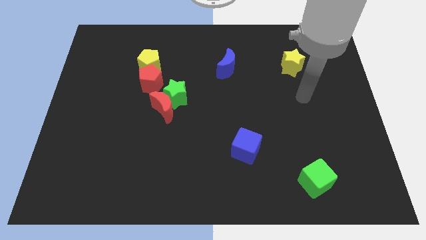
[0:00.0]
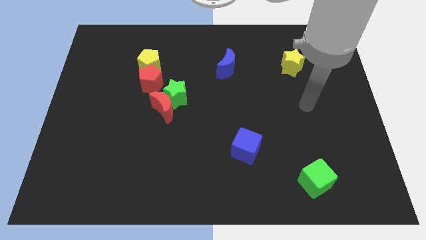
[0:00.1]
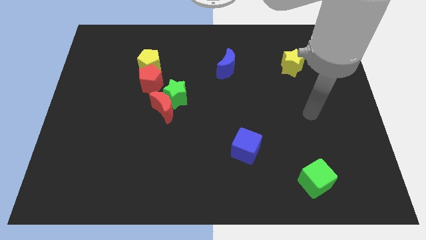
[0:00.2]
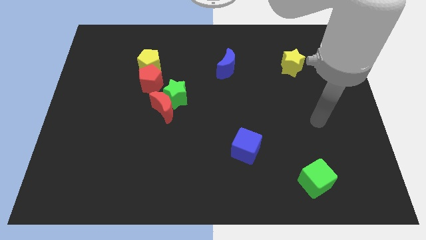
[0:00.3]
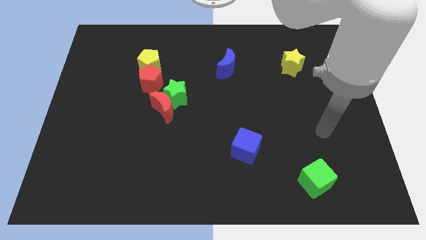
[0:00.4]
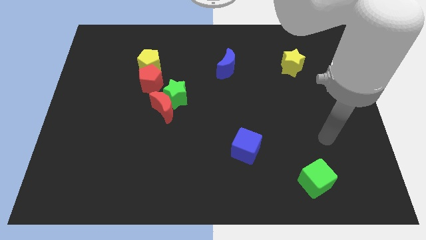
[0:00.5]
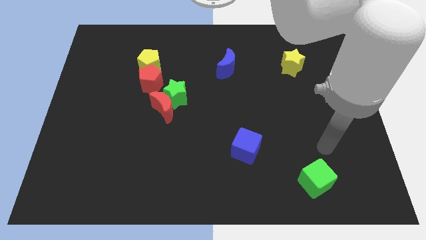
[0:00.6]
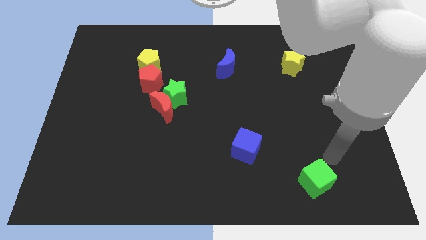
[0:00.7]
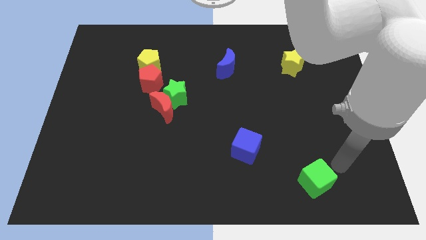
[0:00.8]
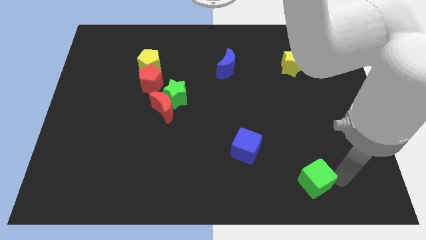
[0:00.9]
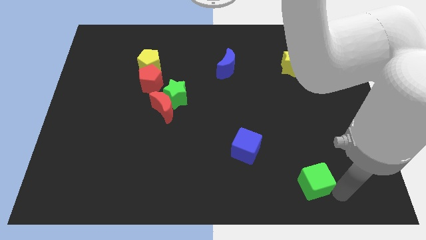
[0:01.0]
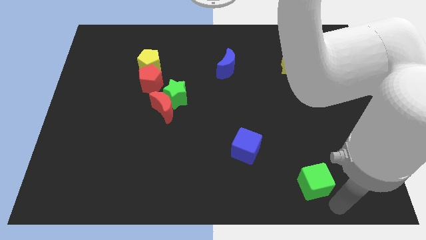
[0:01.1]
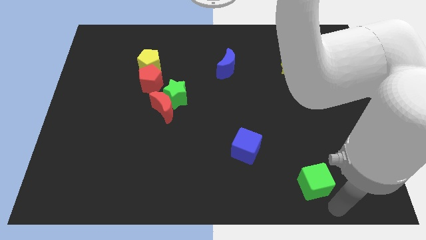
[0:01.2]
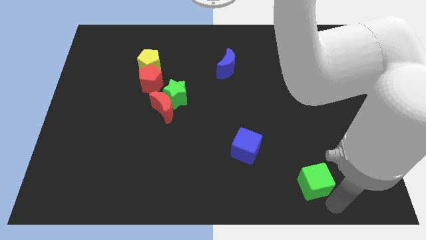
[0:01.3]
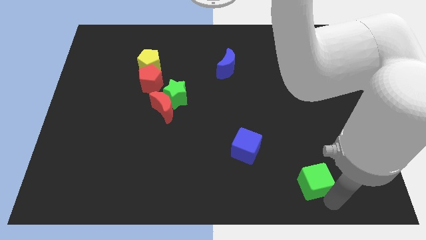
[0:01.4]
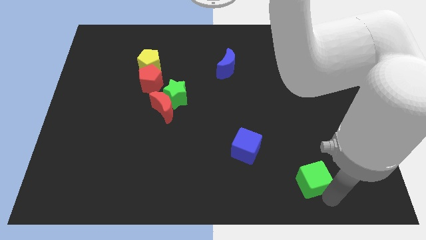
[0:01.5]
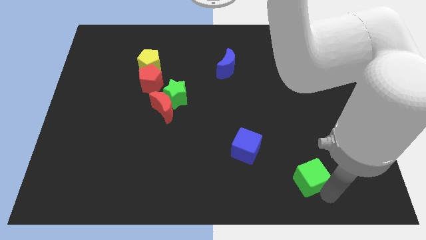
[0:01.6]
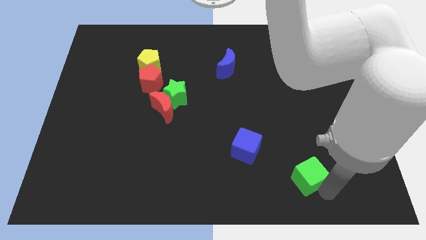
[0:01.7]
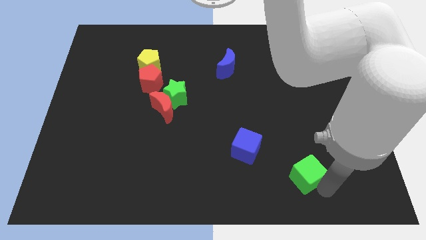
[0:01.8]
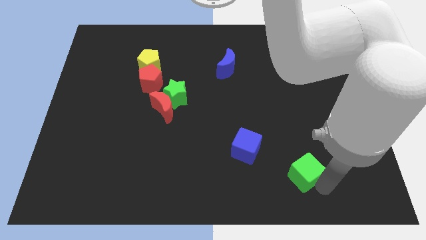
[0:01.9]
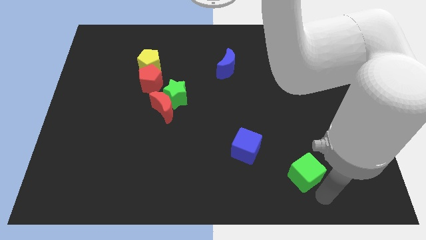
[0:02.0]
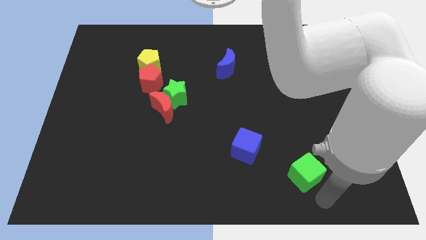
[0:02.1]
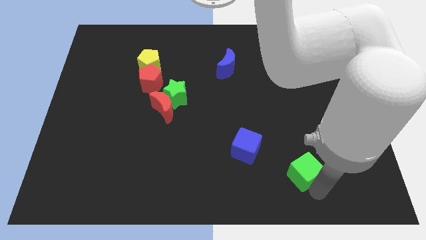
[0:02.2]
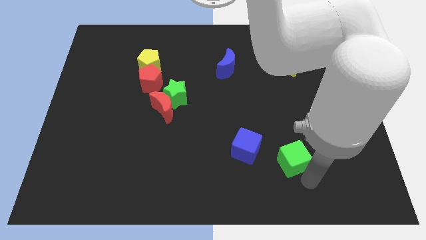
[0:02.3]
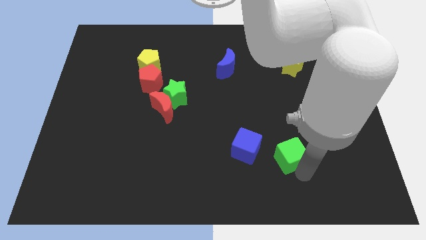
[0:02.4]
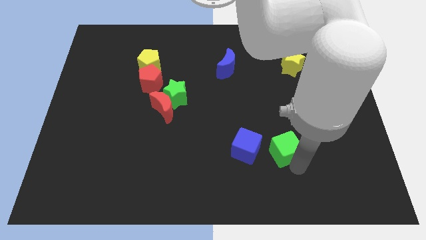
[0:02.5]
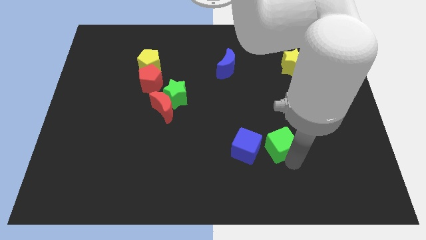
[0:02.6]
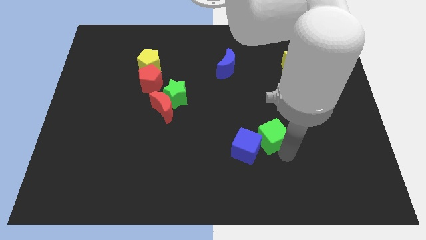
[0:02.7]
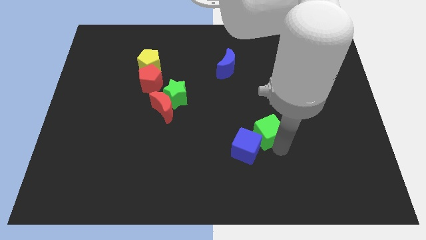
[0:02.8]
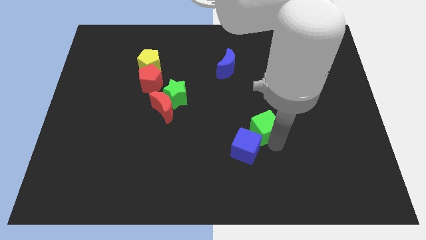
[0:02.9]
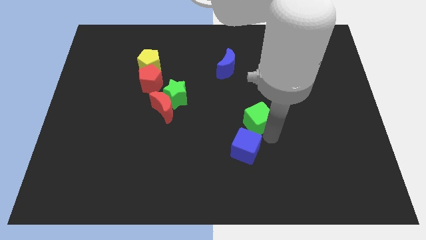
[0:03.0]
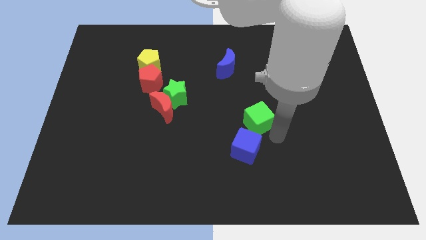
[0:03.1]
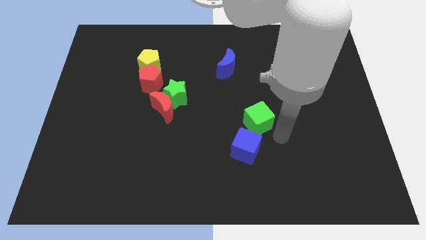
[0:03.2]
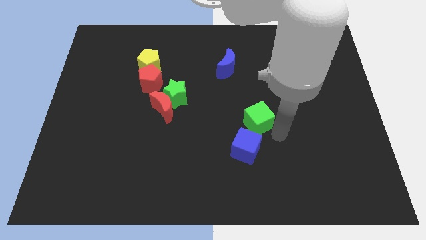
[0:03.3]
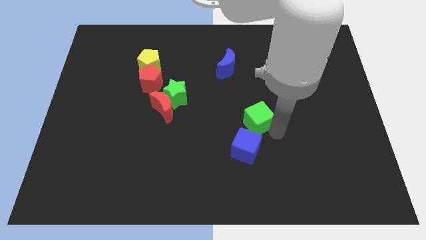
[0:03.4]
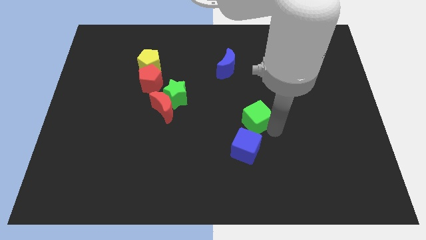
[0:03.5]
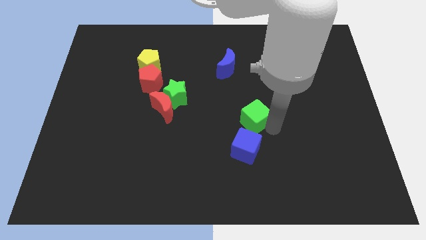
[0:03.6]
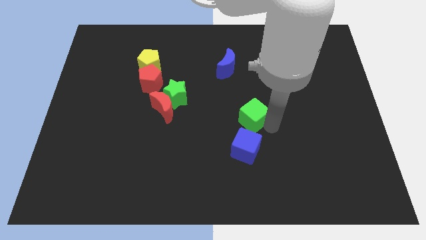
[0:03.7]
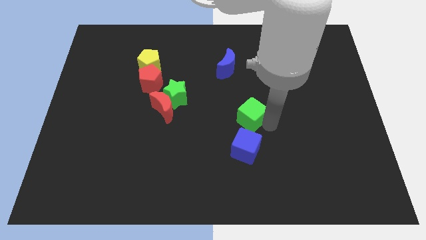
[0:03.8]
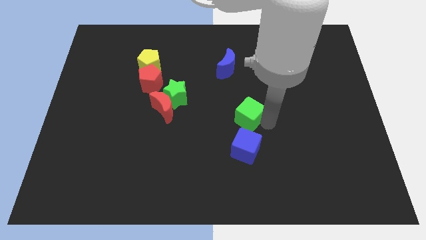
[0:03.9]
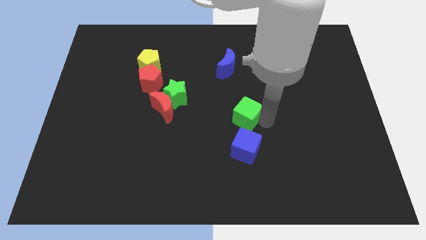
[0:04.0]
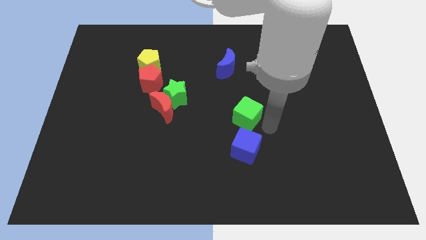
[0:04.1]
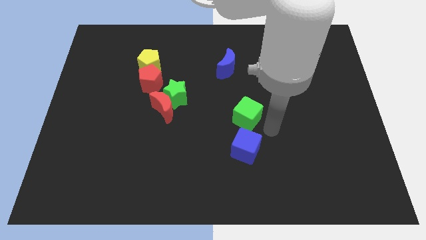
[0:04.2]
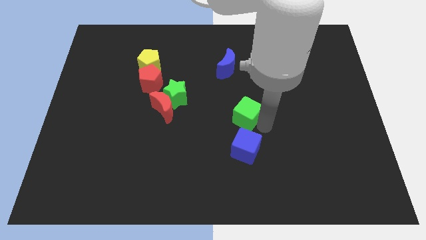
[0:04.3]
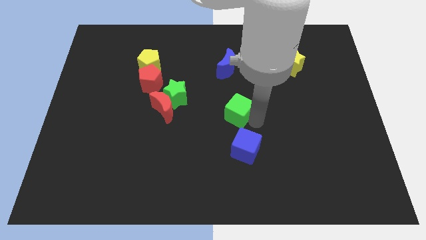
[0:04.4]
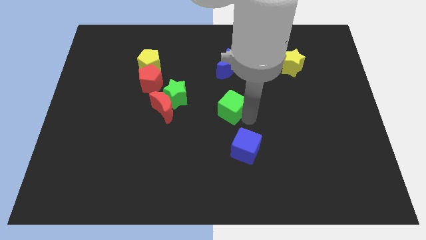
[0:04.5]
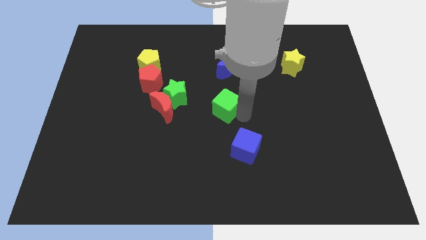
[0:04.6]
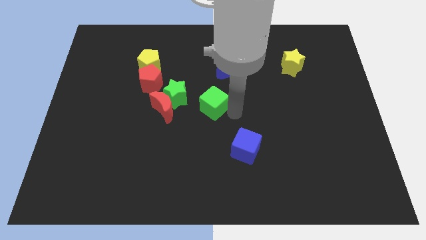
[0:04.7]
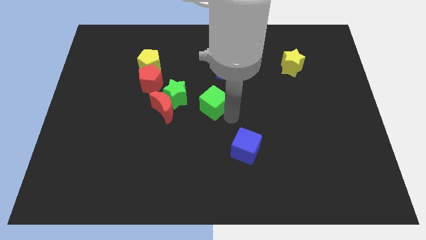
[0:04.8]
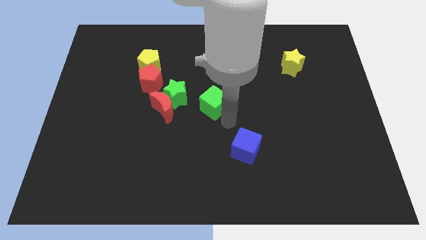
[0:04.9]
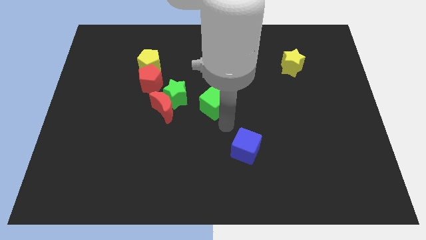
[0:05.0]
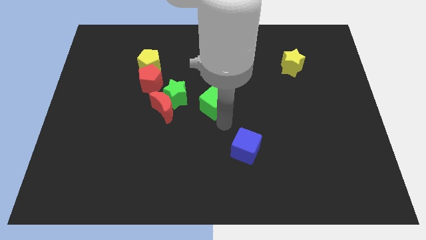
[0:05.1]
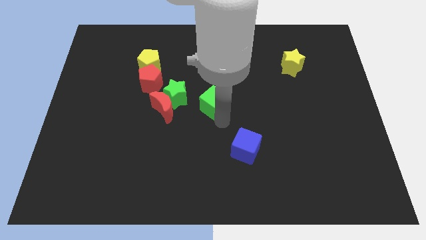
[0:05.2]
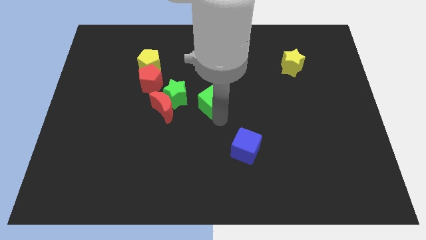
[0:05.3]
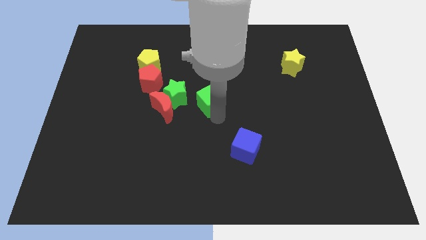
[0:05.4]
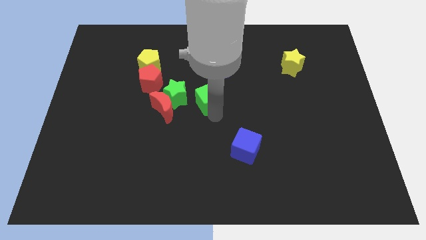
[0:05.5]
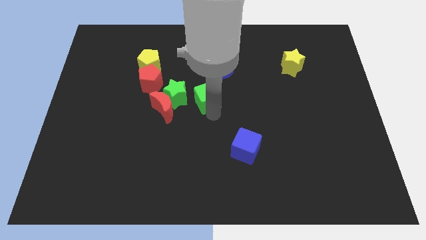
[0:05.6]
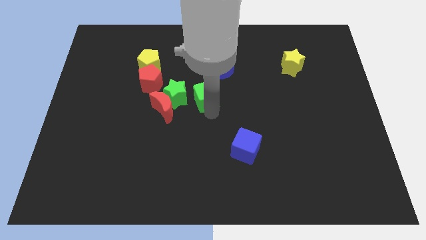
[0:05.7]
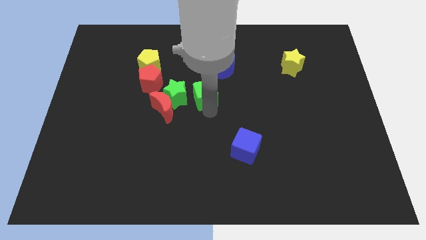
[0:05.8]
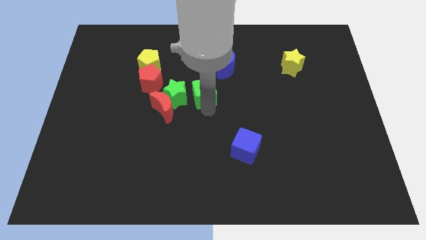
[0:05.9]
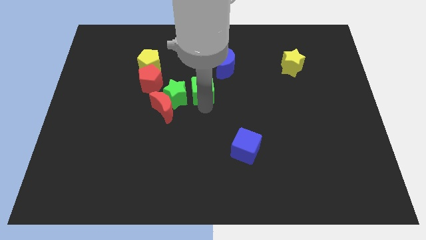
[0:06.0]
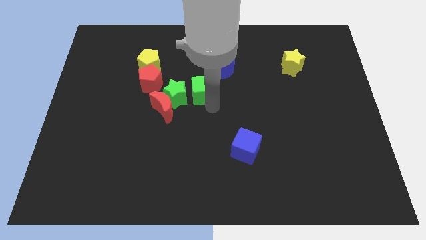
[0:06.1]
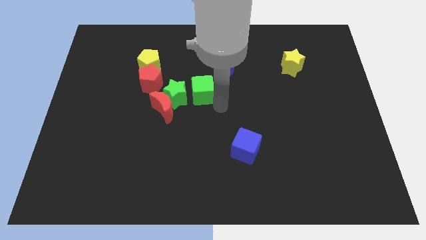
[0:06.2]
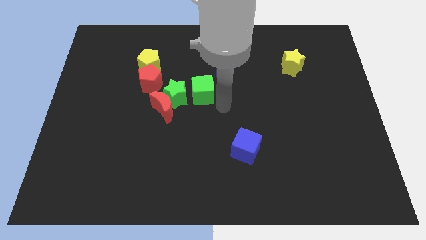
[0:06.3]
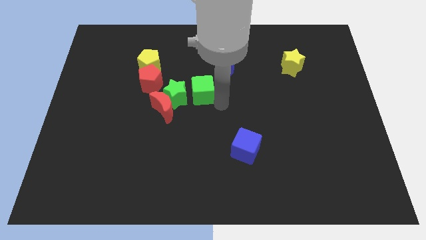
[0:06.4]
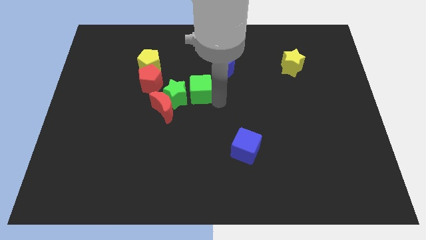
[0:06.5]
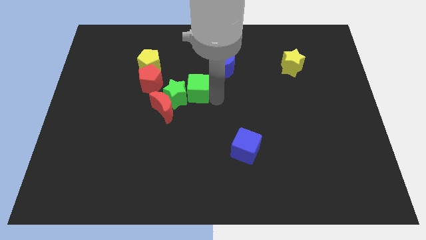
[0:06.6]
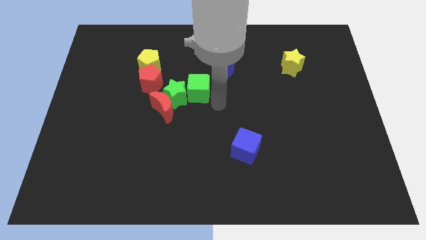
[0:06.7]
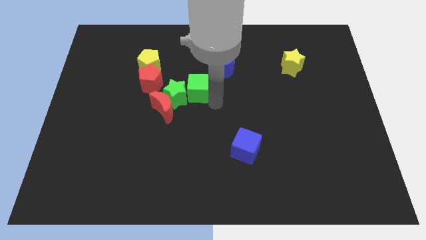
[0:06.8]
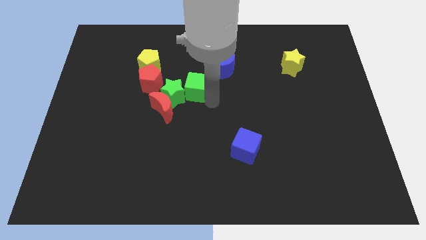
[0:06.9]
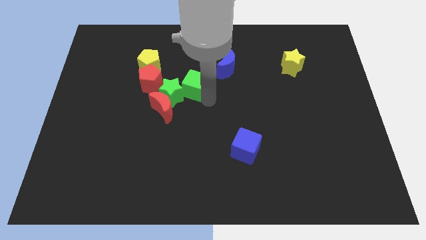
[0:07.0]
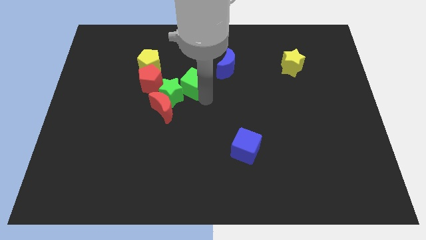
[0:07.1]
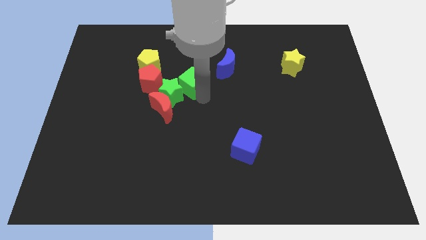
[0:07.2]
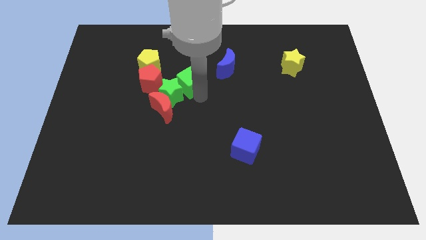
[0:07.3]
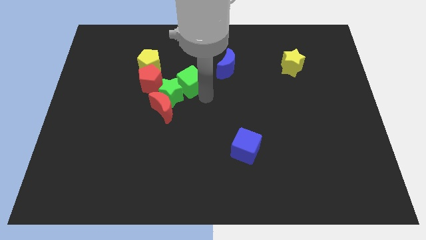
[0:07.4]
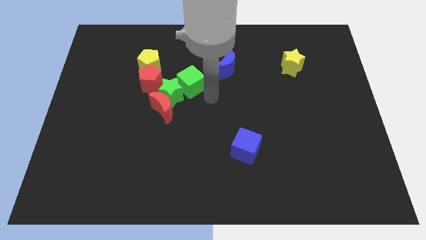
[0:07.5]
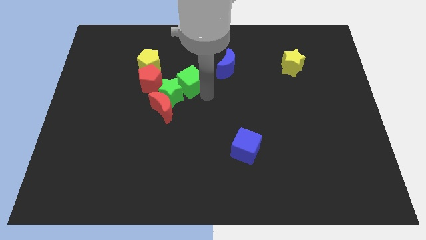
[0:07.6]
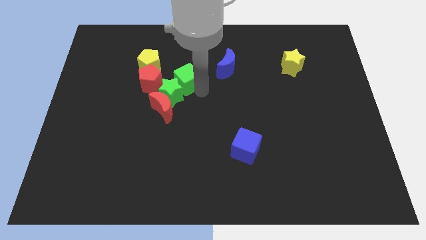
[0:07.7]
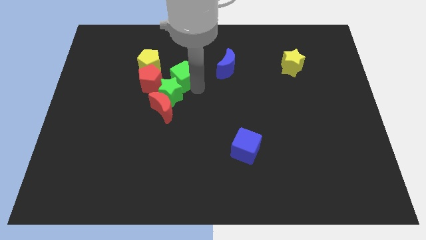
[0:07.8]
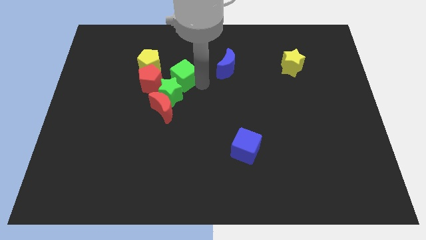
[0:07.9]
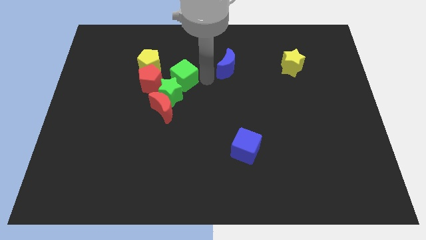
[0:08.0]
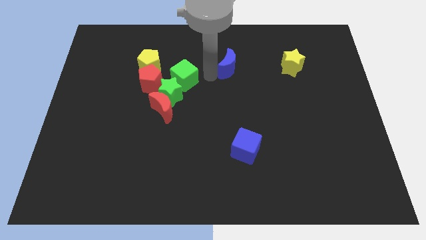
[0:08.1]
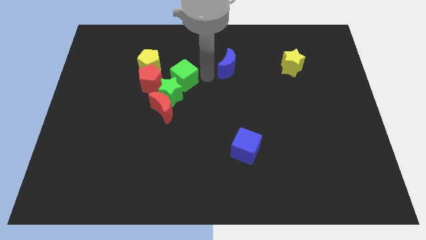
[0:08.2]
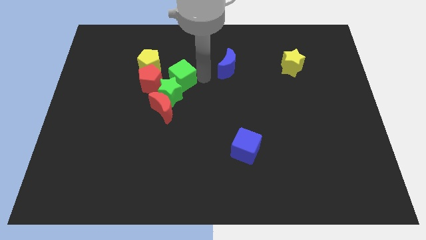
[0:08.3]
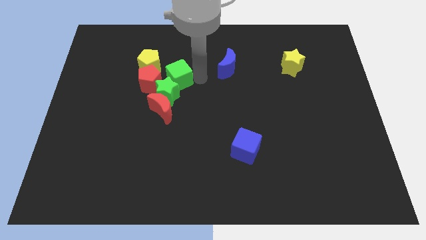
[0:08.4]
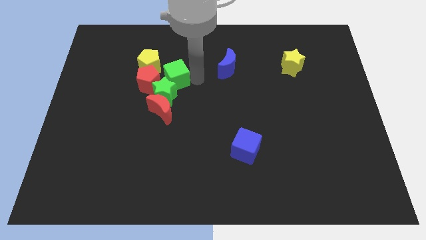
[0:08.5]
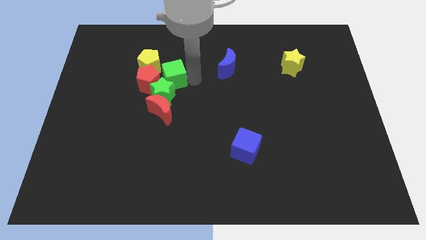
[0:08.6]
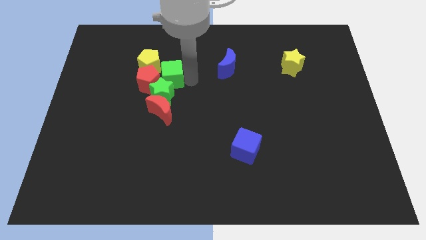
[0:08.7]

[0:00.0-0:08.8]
put the green cube to the red pentagon
